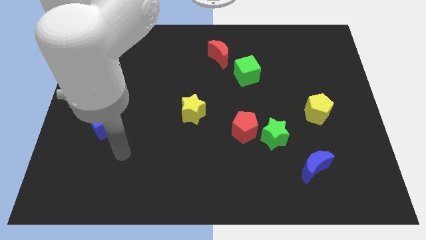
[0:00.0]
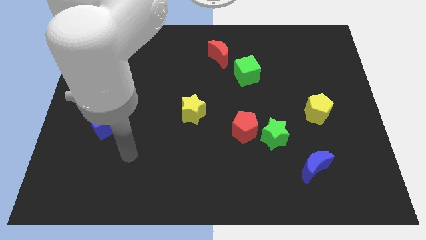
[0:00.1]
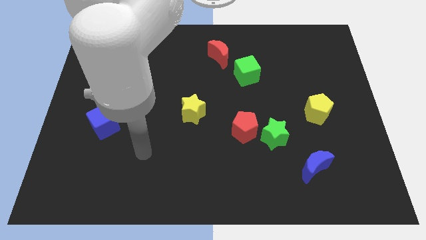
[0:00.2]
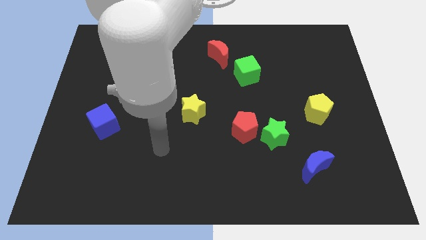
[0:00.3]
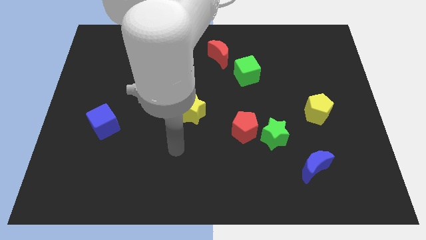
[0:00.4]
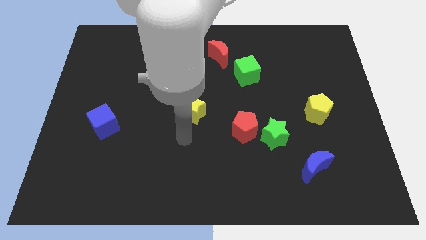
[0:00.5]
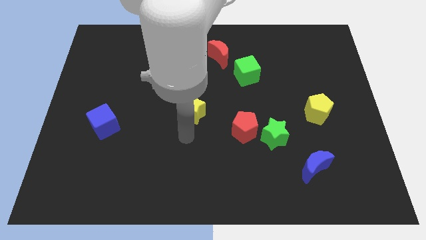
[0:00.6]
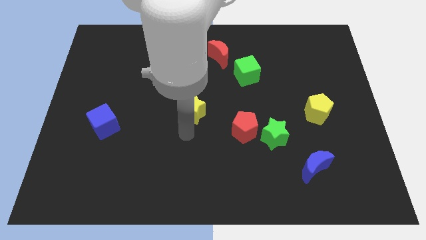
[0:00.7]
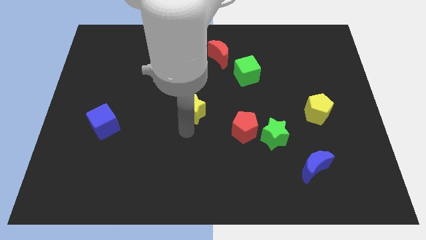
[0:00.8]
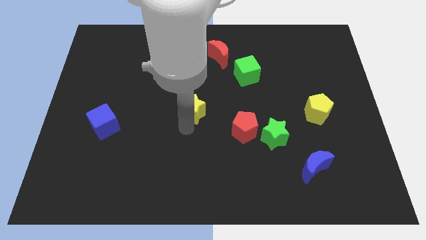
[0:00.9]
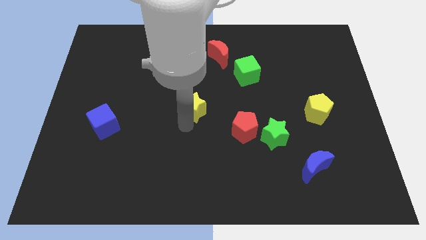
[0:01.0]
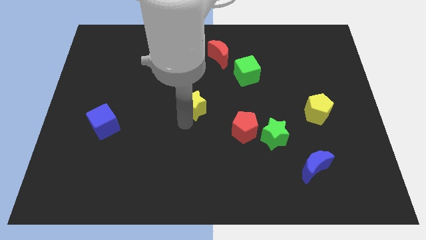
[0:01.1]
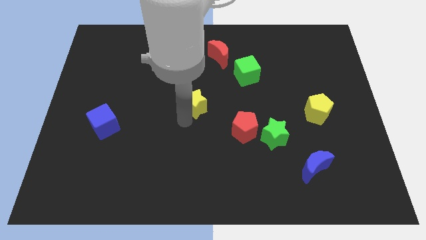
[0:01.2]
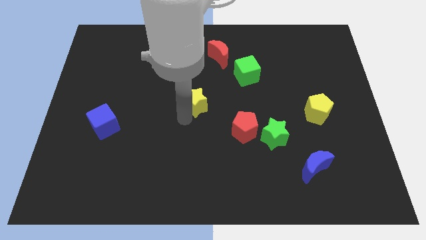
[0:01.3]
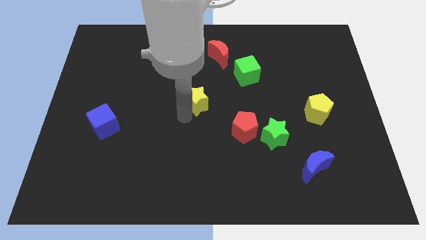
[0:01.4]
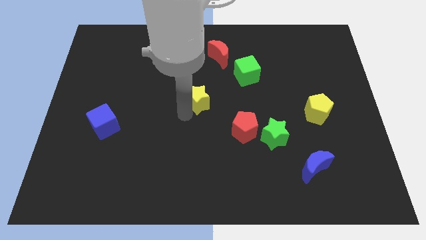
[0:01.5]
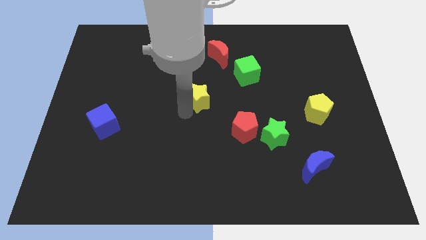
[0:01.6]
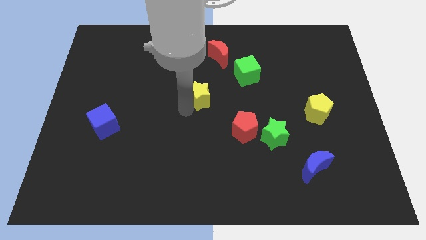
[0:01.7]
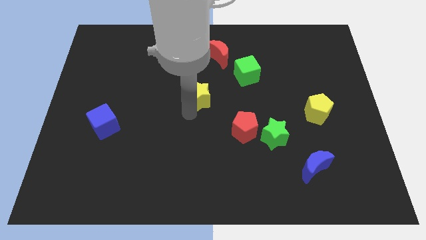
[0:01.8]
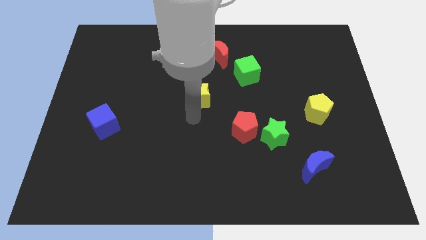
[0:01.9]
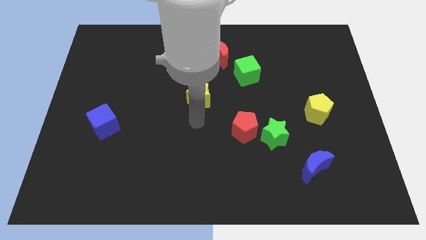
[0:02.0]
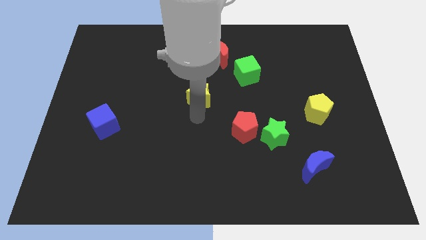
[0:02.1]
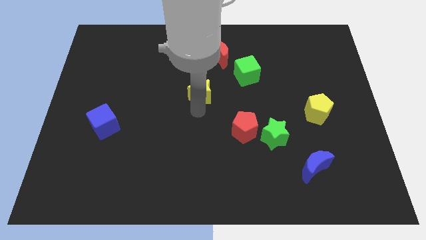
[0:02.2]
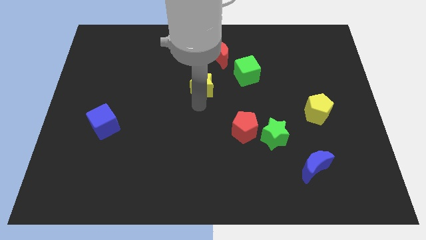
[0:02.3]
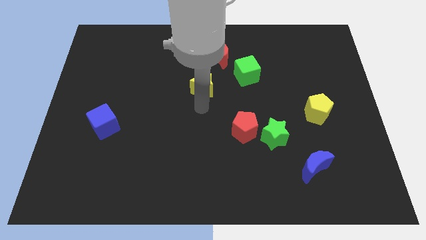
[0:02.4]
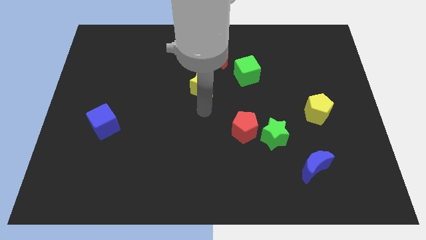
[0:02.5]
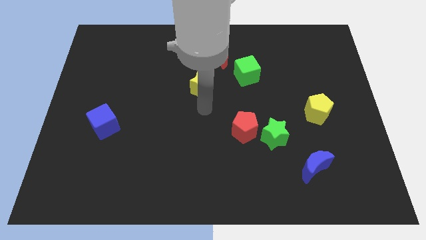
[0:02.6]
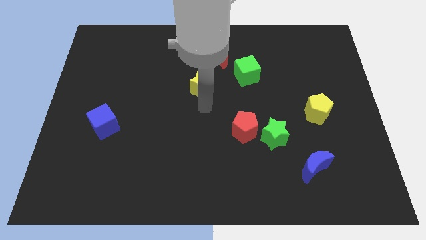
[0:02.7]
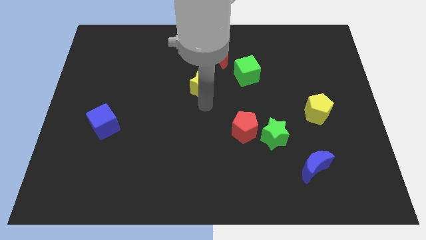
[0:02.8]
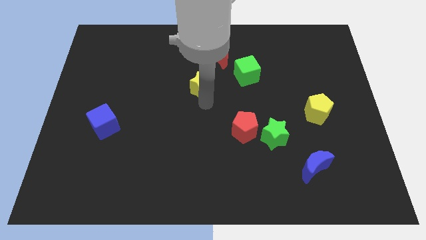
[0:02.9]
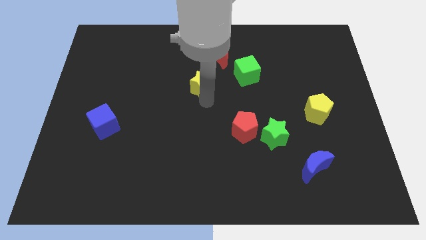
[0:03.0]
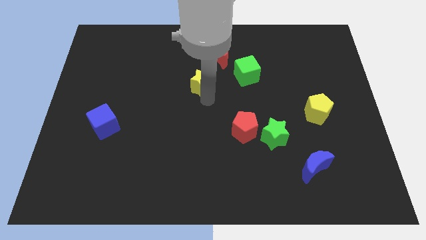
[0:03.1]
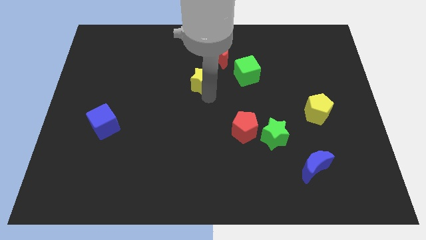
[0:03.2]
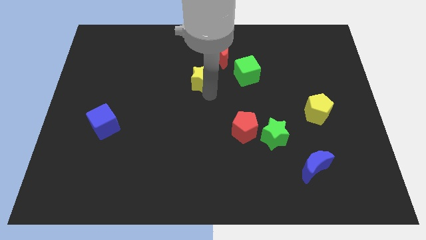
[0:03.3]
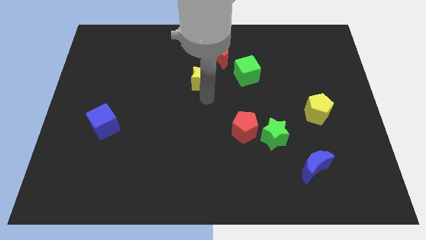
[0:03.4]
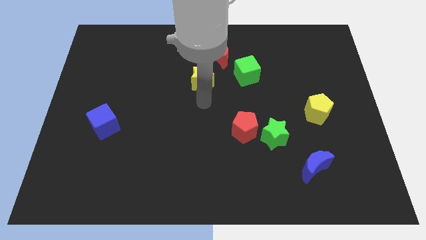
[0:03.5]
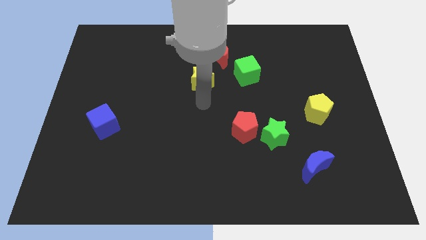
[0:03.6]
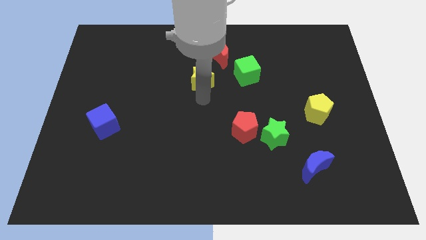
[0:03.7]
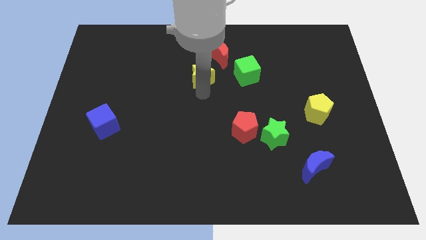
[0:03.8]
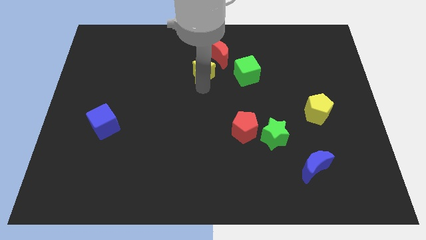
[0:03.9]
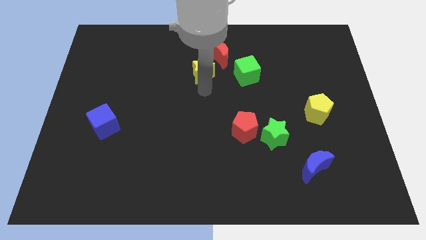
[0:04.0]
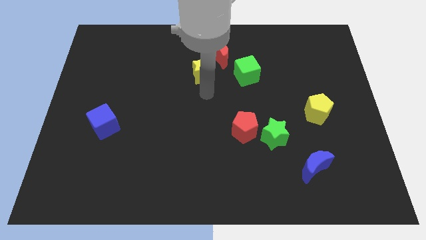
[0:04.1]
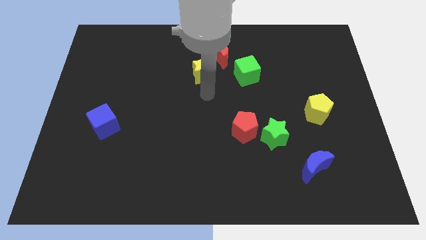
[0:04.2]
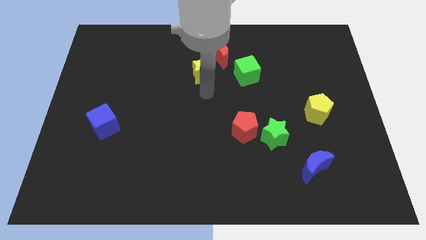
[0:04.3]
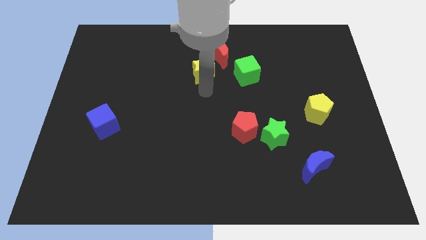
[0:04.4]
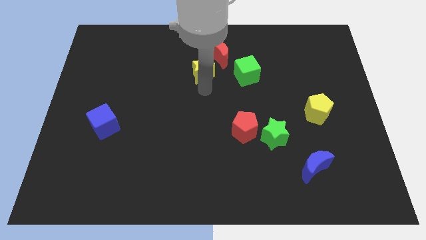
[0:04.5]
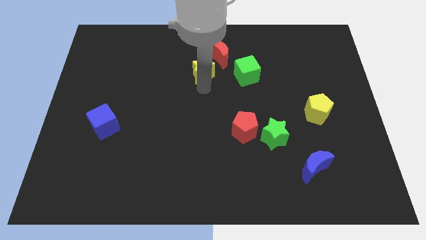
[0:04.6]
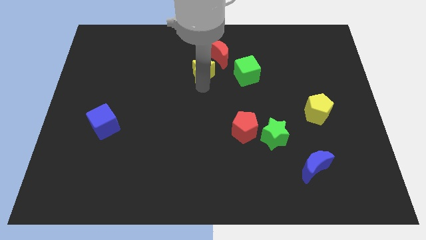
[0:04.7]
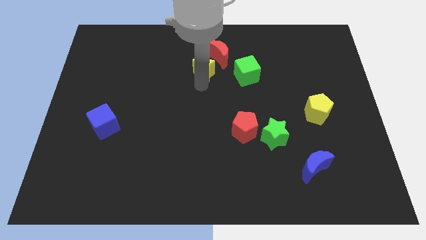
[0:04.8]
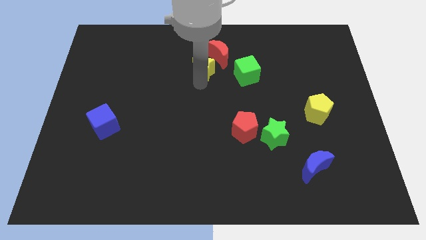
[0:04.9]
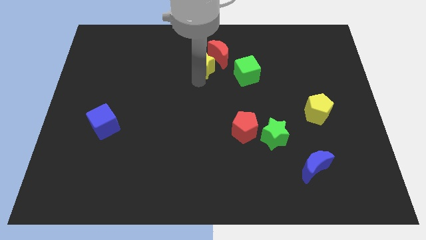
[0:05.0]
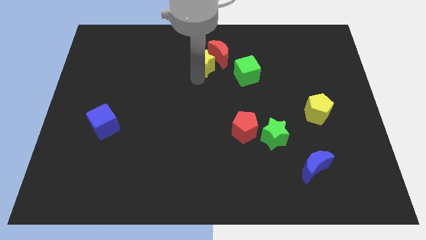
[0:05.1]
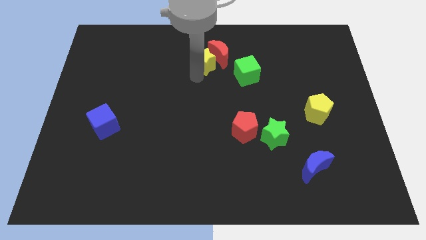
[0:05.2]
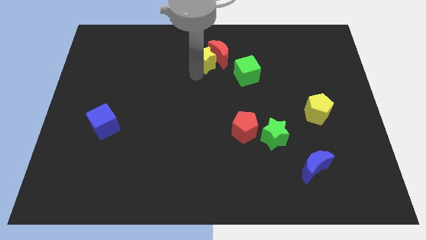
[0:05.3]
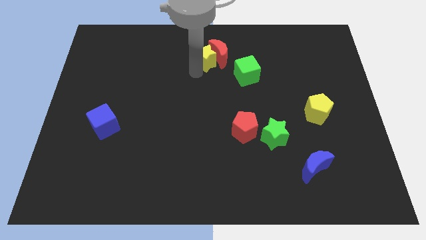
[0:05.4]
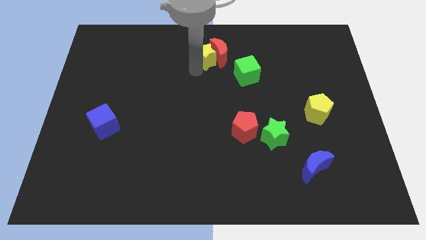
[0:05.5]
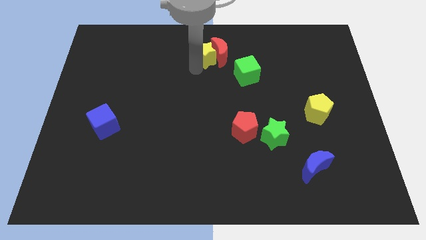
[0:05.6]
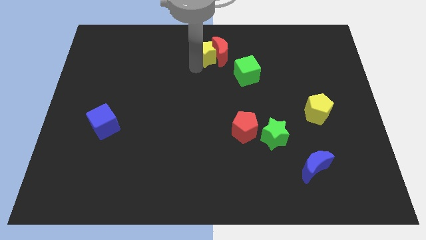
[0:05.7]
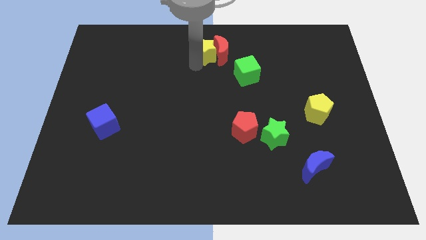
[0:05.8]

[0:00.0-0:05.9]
put the yellow star to the top

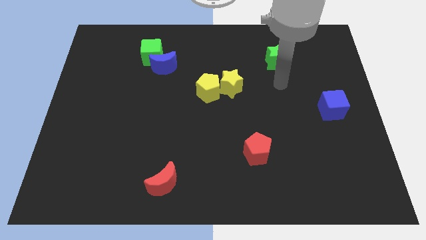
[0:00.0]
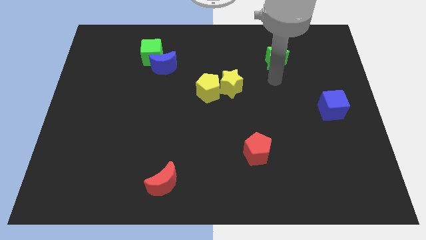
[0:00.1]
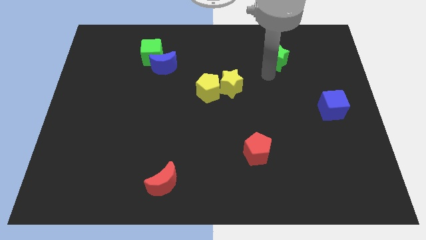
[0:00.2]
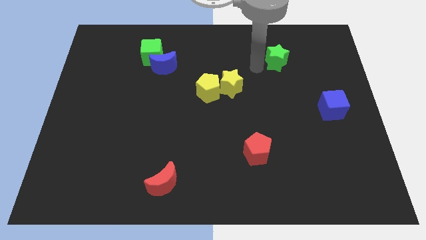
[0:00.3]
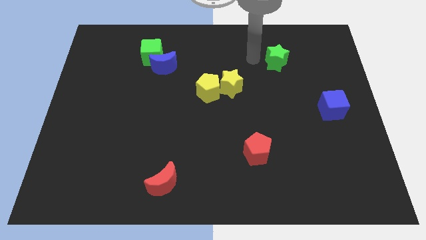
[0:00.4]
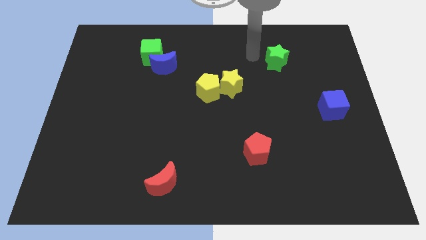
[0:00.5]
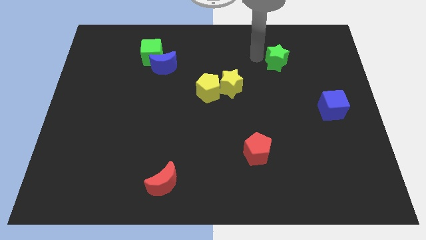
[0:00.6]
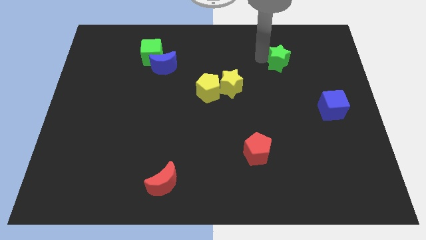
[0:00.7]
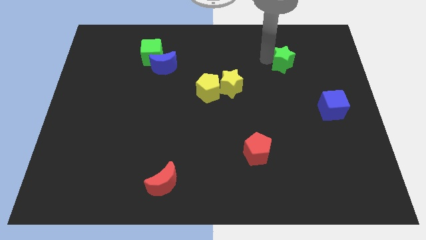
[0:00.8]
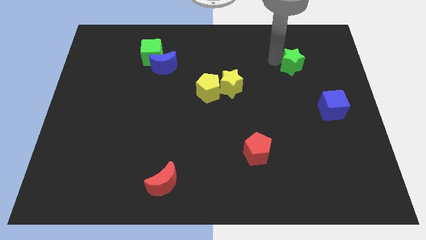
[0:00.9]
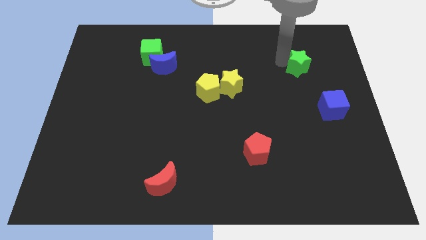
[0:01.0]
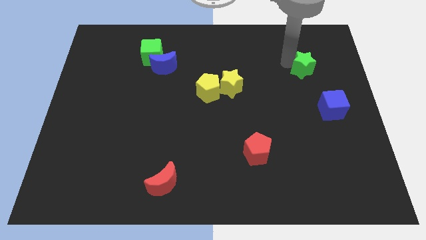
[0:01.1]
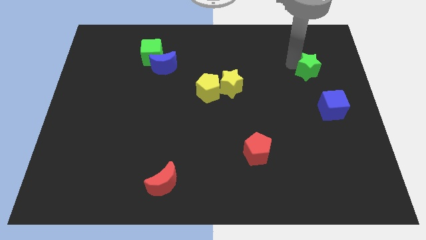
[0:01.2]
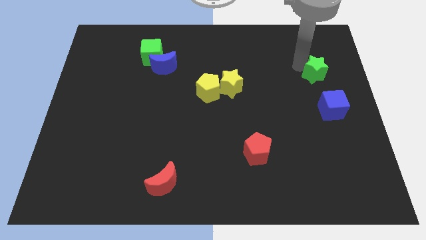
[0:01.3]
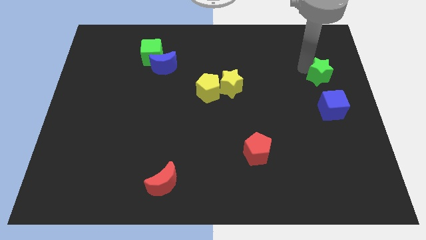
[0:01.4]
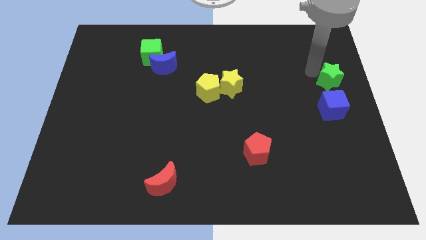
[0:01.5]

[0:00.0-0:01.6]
put the green star to the right side of the board
